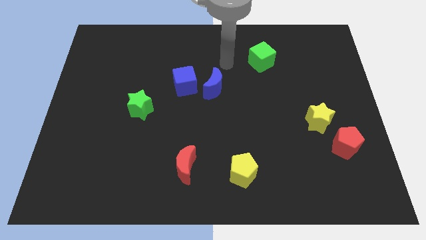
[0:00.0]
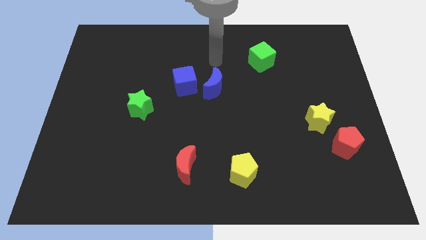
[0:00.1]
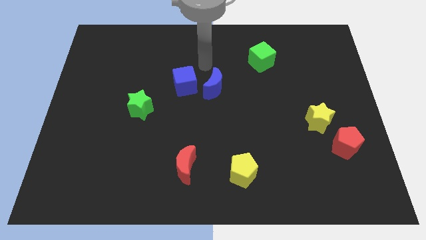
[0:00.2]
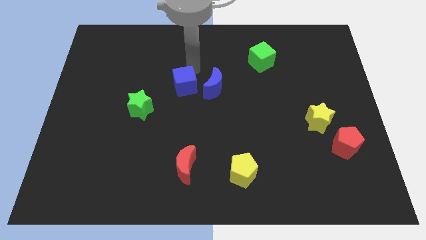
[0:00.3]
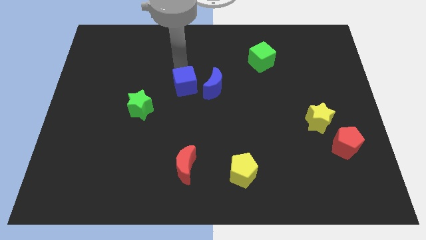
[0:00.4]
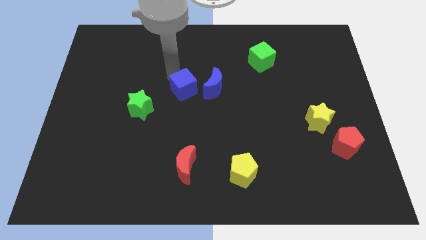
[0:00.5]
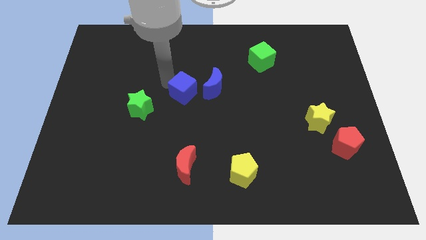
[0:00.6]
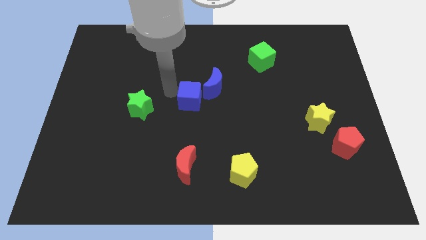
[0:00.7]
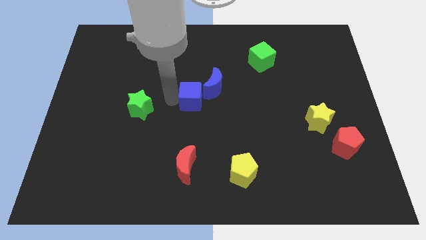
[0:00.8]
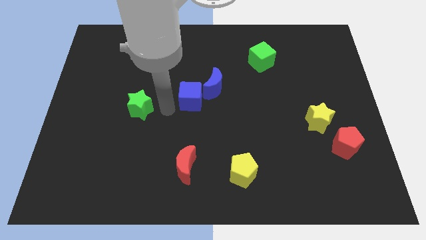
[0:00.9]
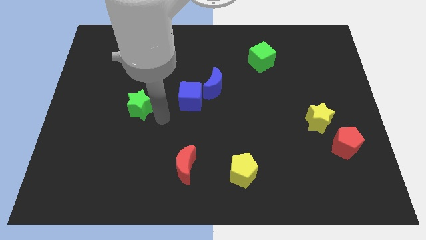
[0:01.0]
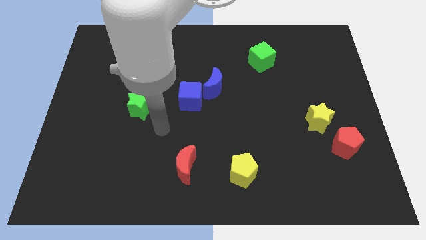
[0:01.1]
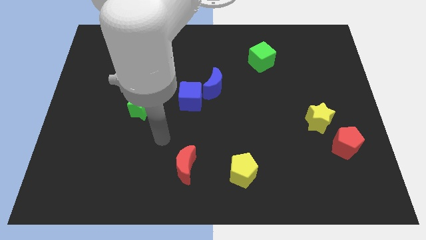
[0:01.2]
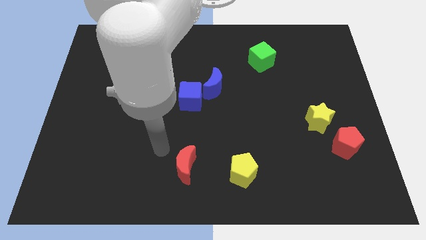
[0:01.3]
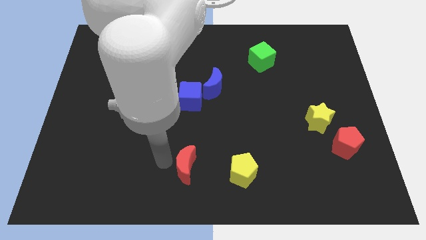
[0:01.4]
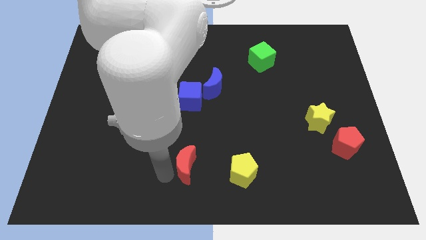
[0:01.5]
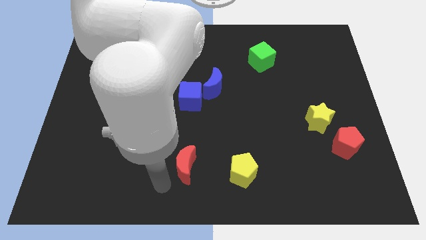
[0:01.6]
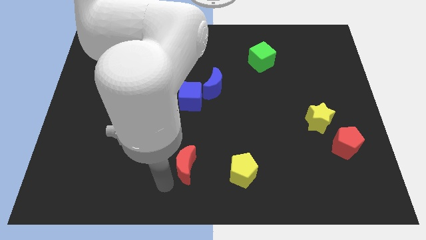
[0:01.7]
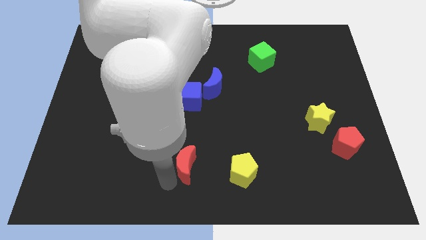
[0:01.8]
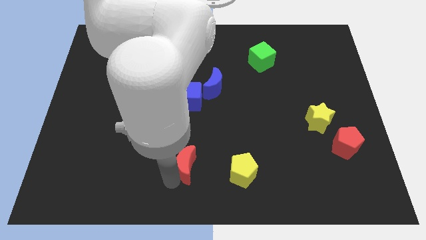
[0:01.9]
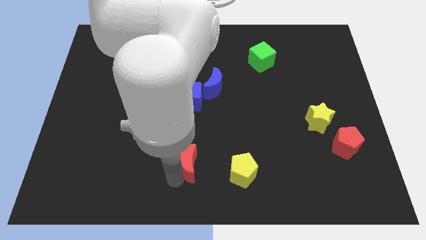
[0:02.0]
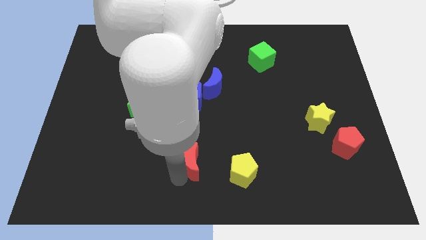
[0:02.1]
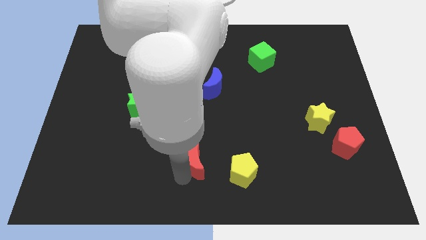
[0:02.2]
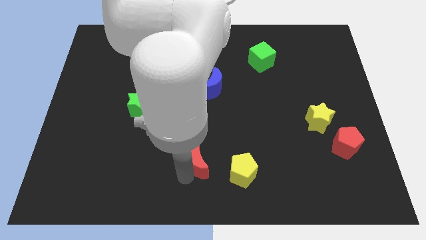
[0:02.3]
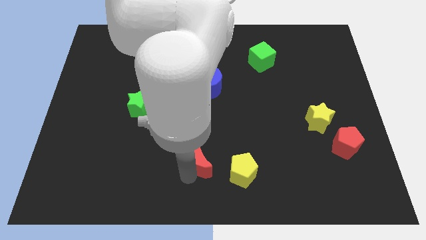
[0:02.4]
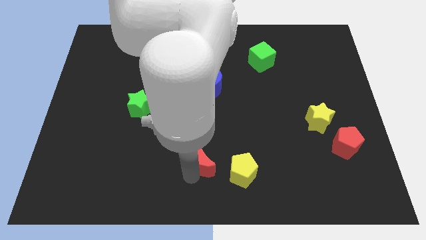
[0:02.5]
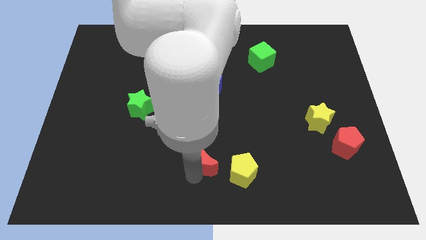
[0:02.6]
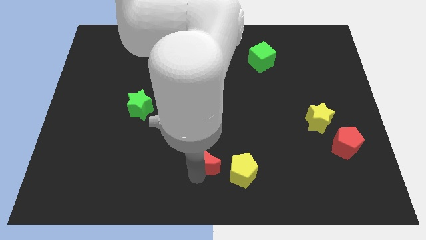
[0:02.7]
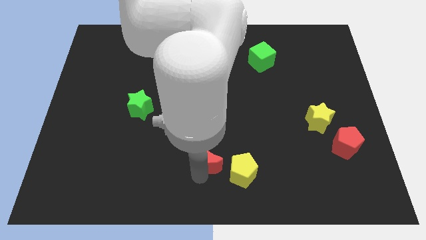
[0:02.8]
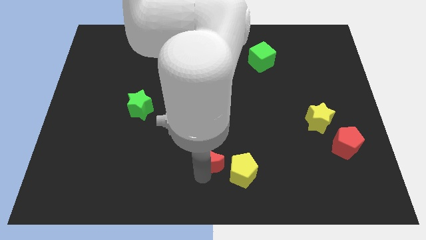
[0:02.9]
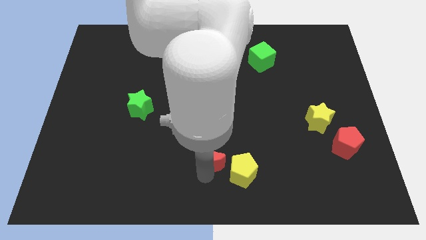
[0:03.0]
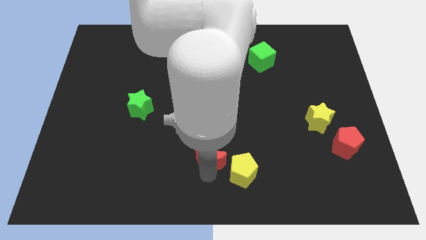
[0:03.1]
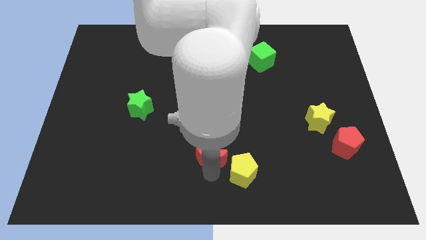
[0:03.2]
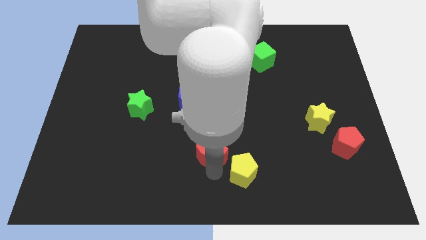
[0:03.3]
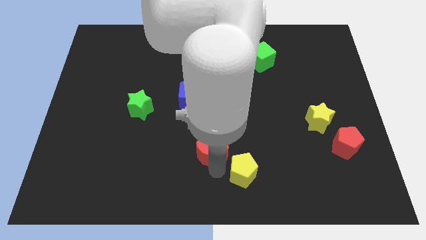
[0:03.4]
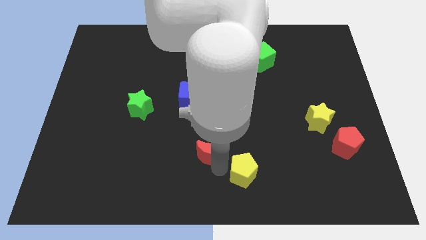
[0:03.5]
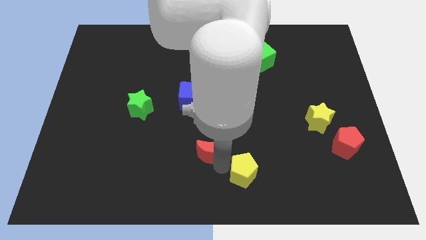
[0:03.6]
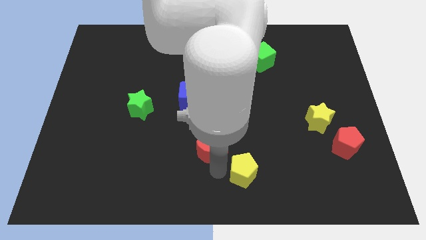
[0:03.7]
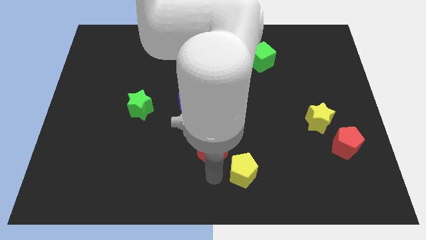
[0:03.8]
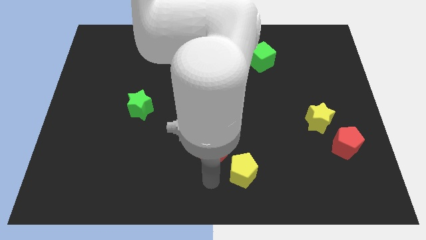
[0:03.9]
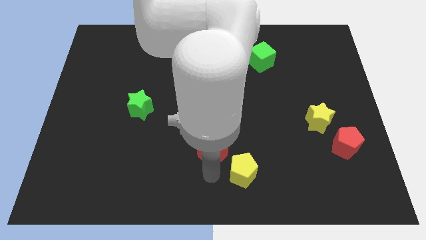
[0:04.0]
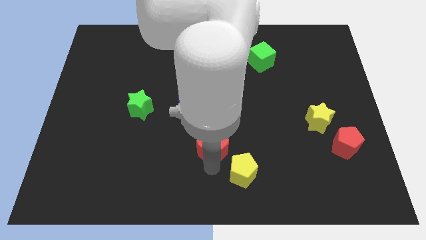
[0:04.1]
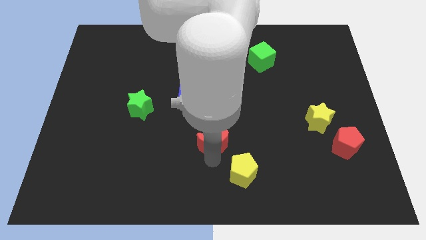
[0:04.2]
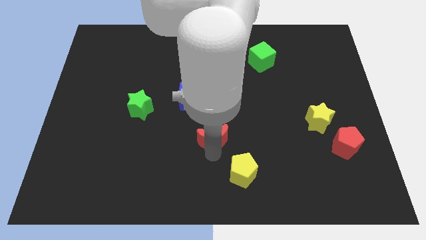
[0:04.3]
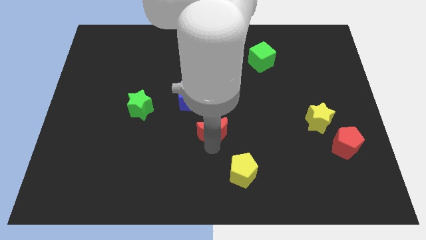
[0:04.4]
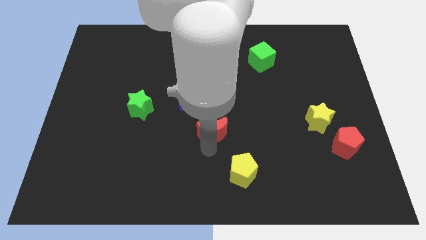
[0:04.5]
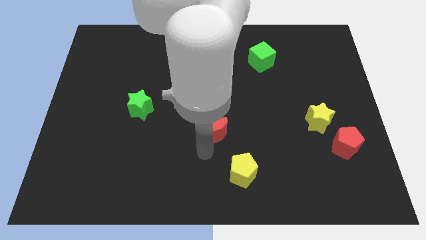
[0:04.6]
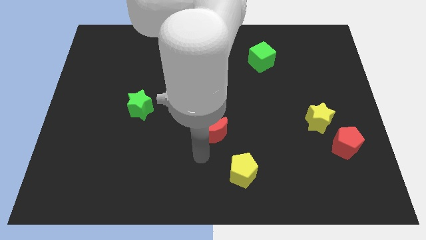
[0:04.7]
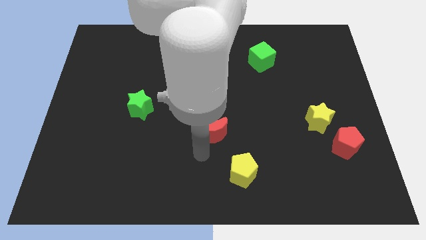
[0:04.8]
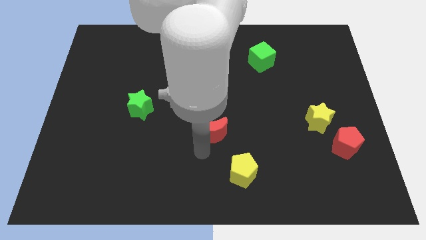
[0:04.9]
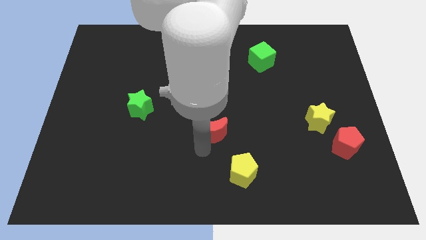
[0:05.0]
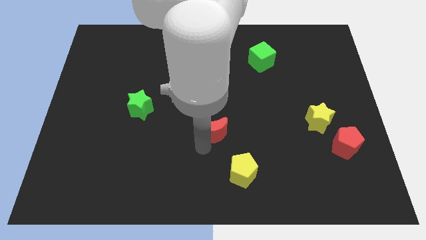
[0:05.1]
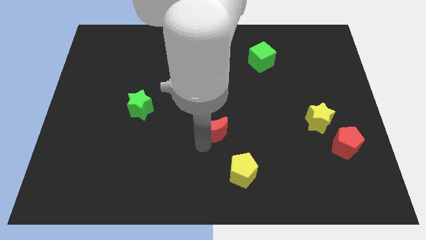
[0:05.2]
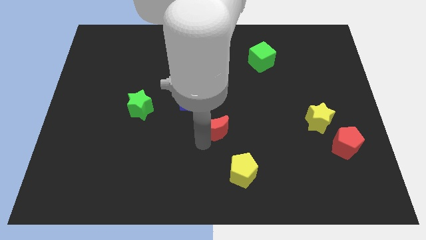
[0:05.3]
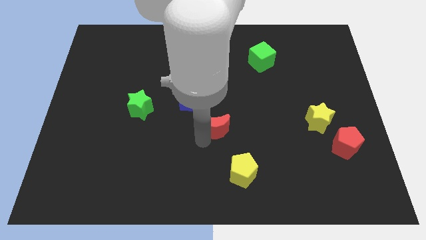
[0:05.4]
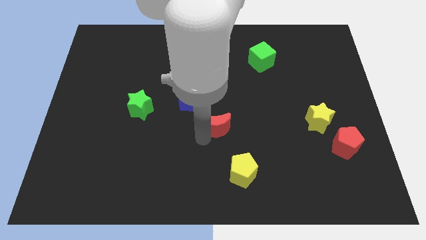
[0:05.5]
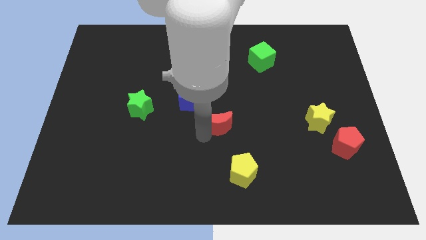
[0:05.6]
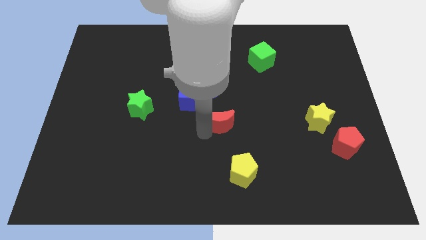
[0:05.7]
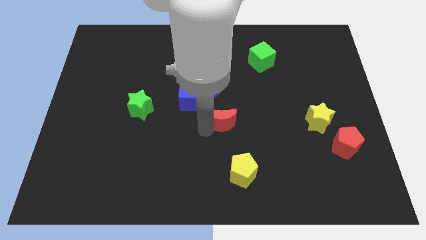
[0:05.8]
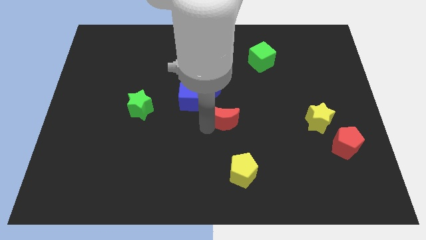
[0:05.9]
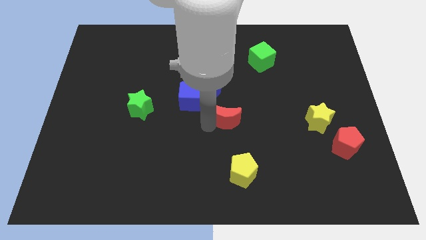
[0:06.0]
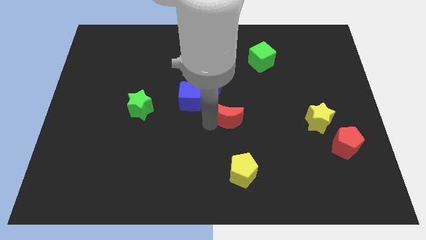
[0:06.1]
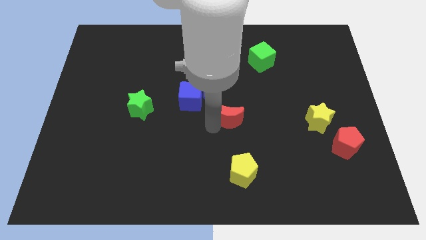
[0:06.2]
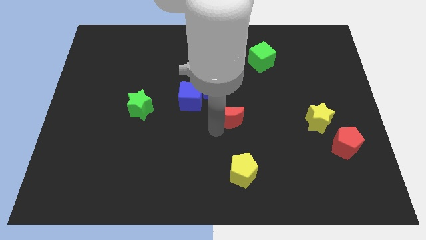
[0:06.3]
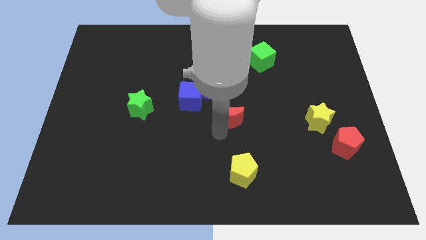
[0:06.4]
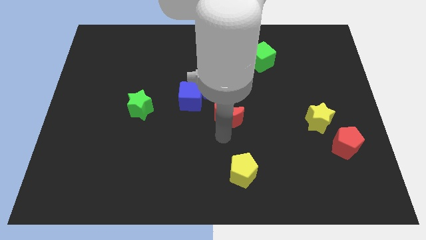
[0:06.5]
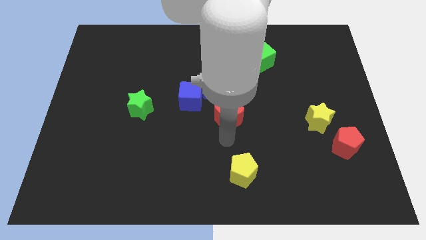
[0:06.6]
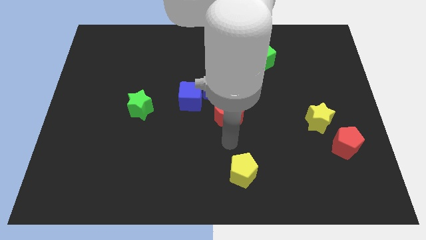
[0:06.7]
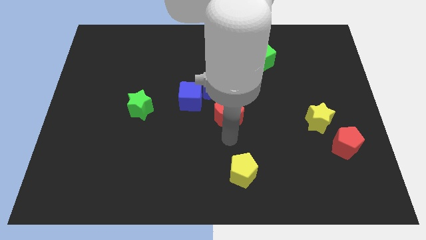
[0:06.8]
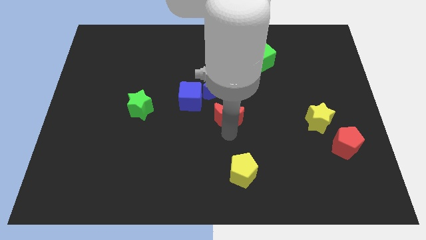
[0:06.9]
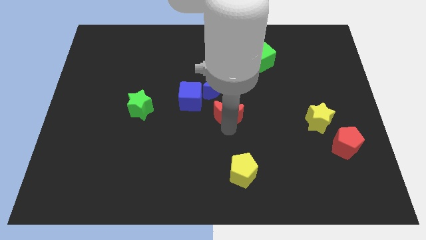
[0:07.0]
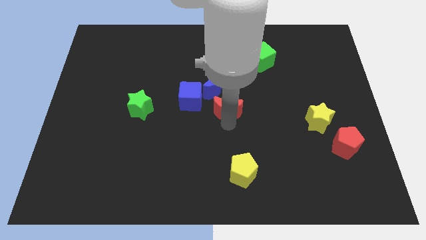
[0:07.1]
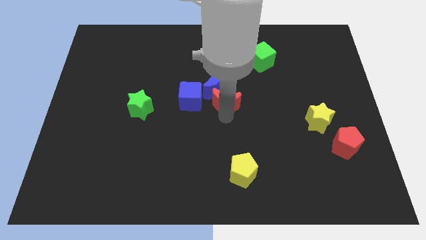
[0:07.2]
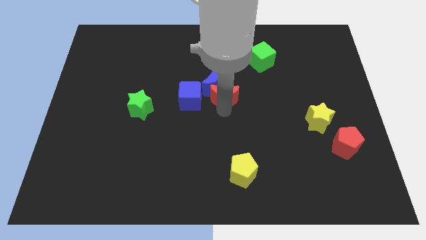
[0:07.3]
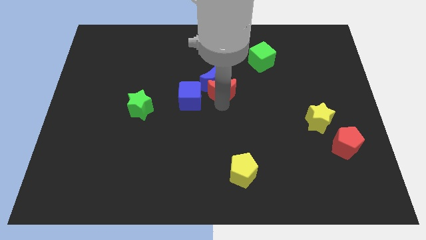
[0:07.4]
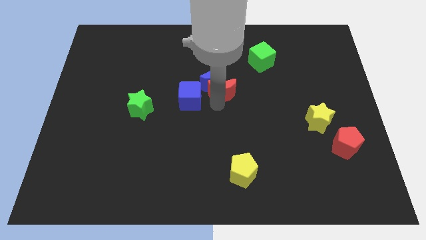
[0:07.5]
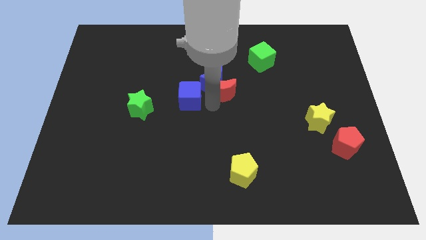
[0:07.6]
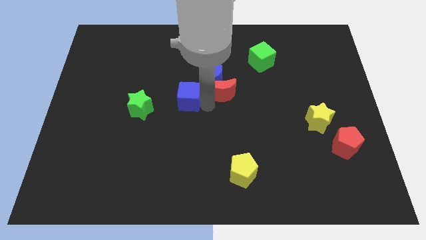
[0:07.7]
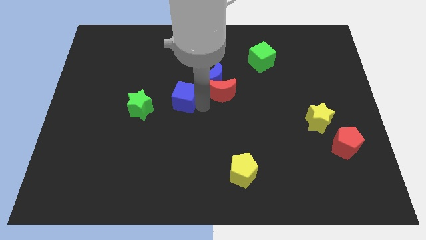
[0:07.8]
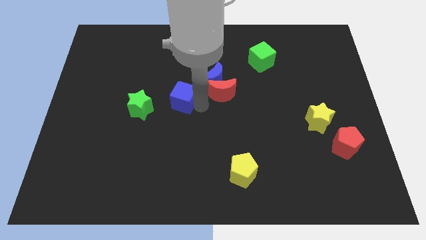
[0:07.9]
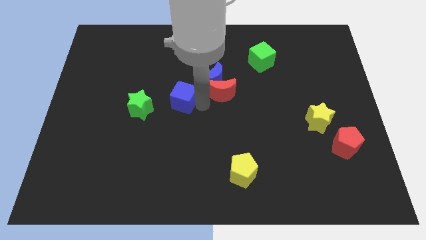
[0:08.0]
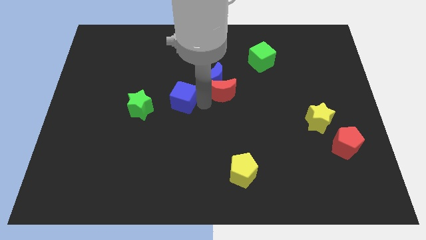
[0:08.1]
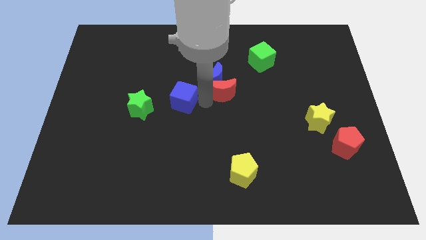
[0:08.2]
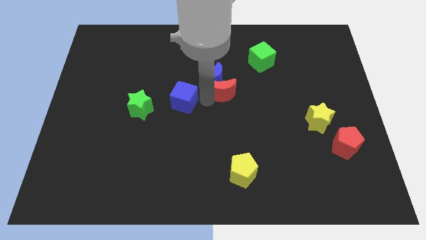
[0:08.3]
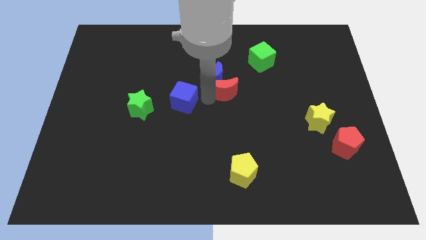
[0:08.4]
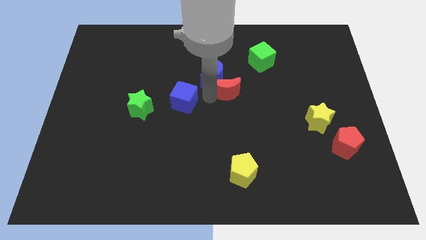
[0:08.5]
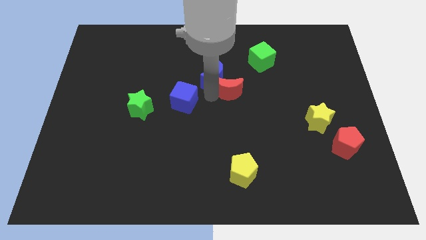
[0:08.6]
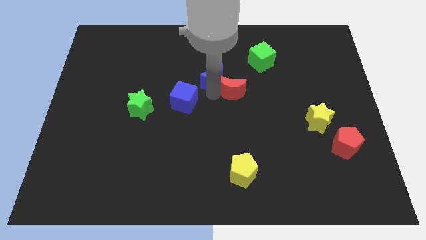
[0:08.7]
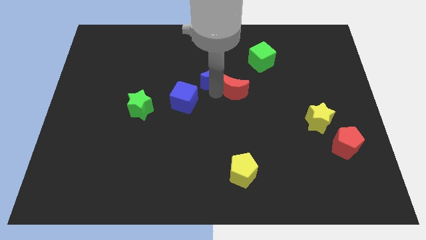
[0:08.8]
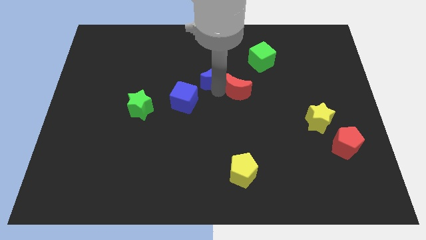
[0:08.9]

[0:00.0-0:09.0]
push the red moon diagonally down and to the left of the green cube
